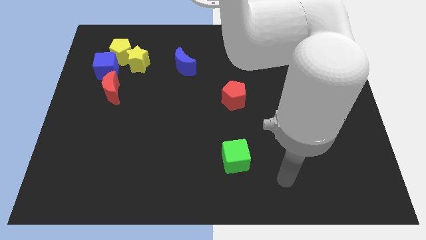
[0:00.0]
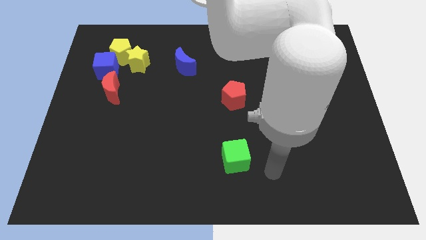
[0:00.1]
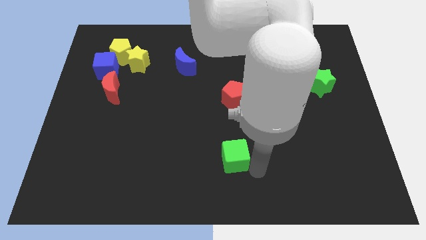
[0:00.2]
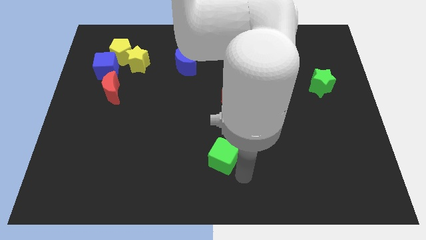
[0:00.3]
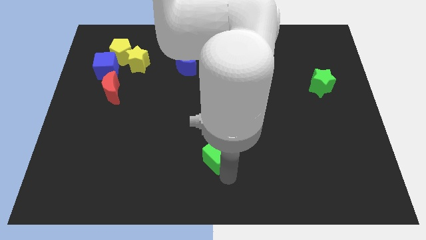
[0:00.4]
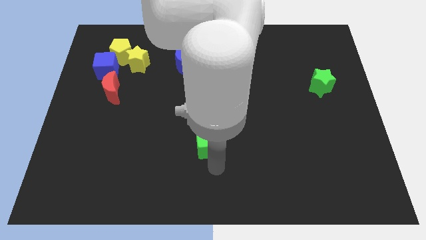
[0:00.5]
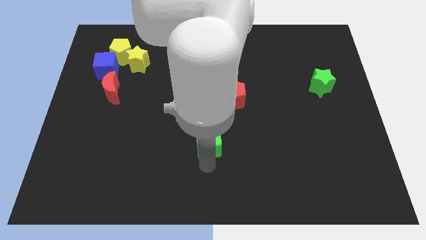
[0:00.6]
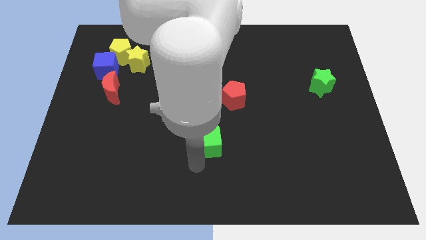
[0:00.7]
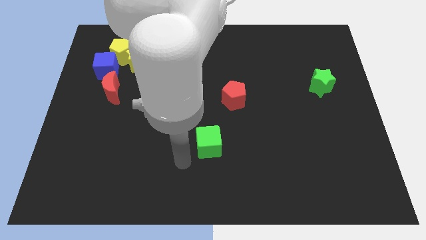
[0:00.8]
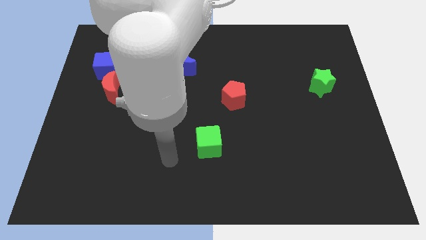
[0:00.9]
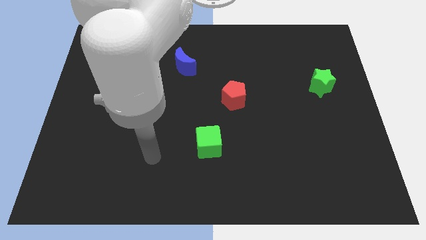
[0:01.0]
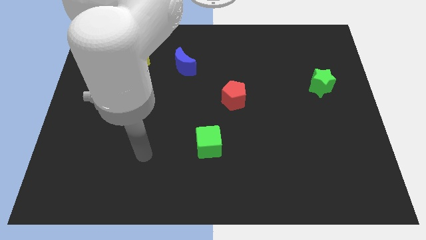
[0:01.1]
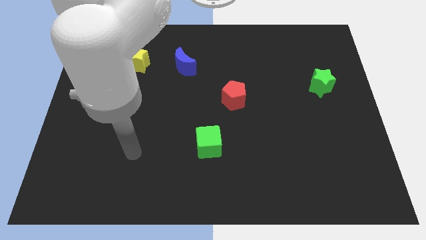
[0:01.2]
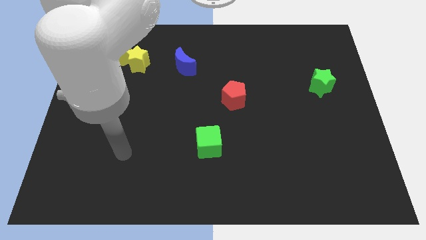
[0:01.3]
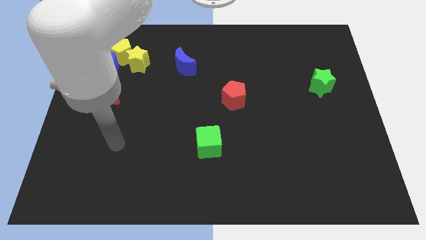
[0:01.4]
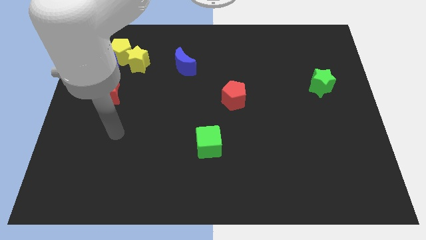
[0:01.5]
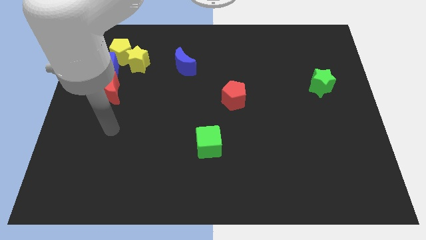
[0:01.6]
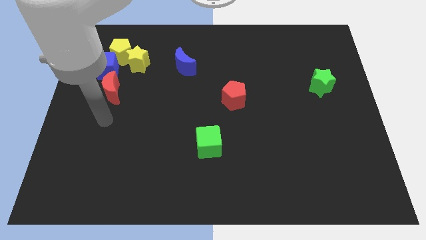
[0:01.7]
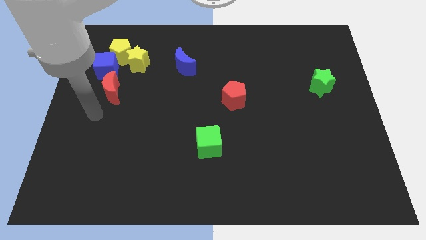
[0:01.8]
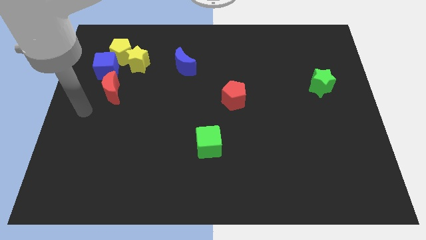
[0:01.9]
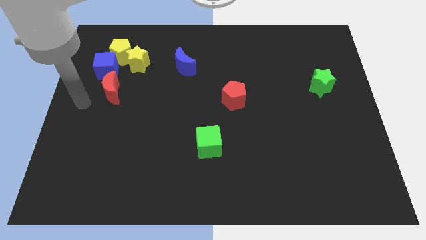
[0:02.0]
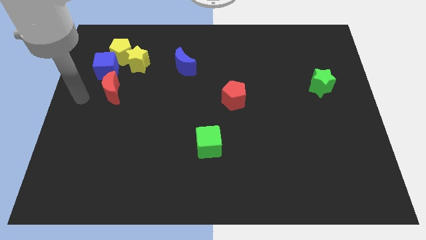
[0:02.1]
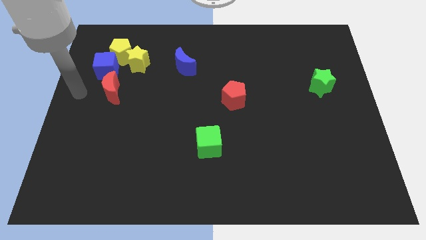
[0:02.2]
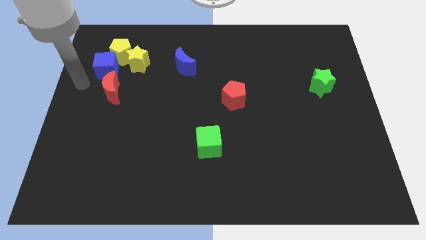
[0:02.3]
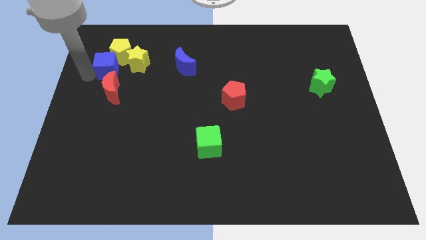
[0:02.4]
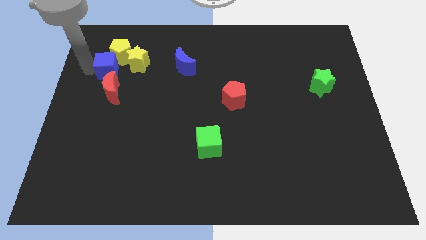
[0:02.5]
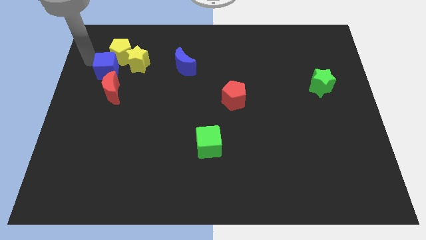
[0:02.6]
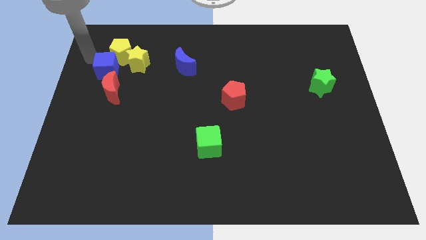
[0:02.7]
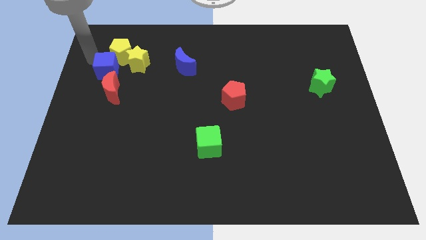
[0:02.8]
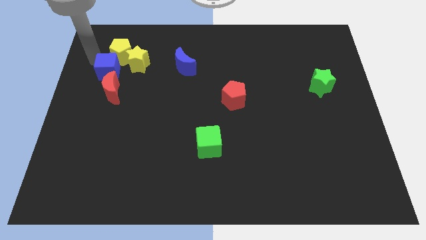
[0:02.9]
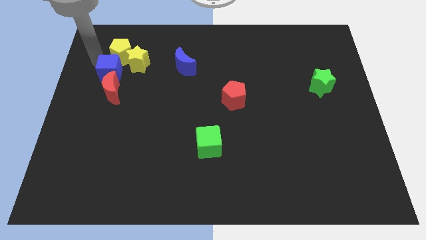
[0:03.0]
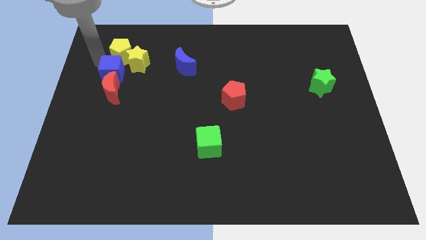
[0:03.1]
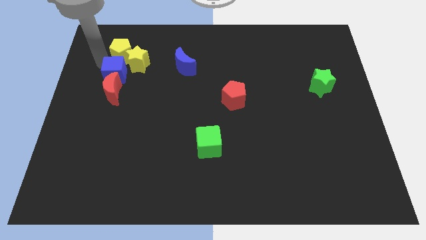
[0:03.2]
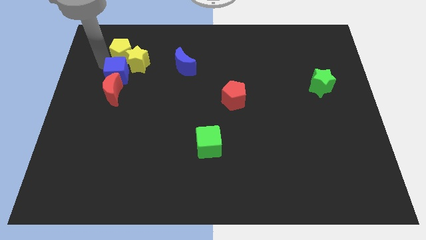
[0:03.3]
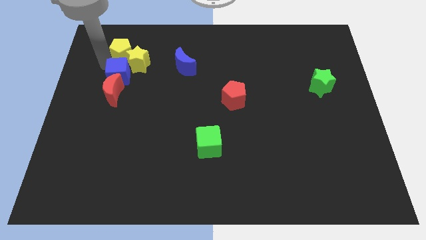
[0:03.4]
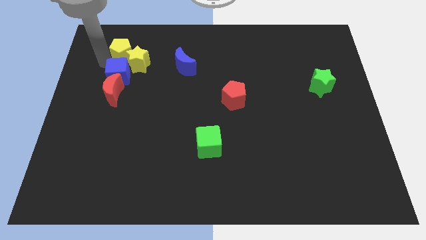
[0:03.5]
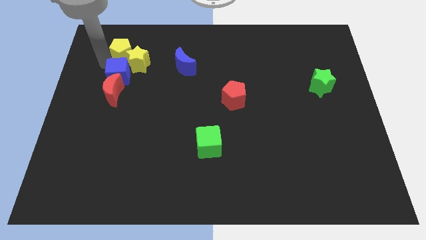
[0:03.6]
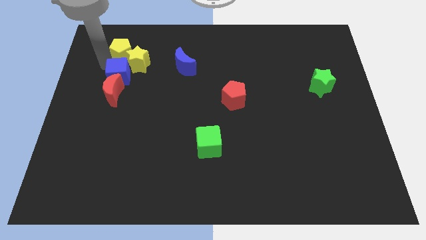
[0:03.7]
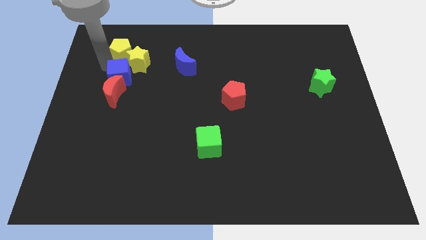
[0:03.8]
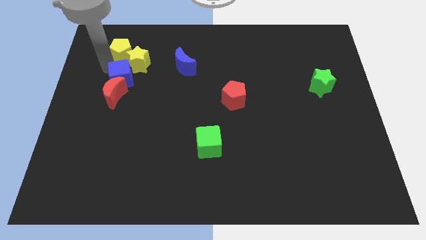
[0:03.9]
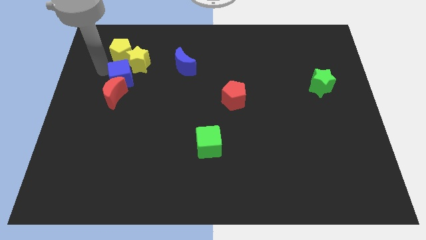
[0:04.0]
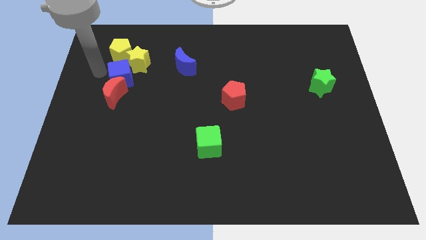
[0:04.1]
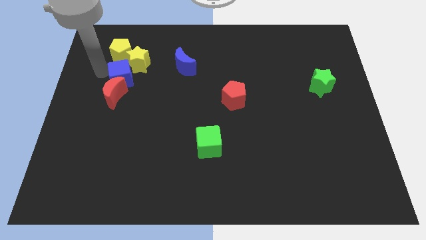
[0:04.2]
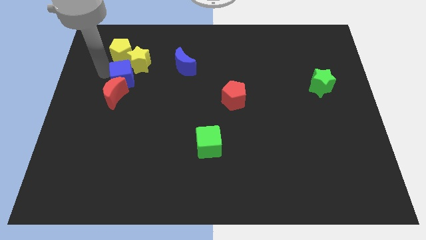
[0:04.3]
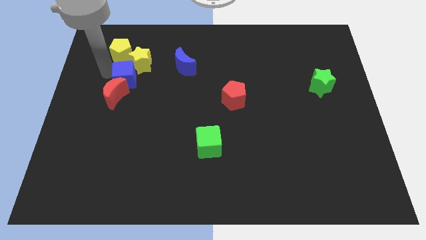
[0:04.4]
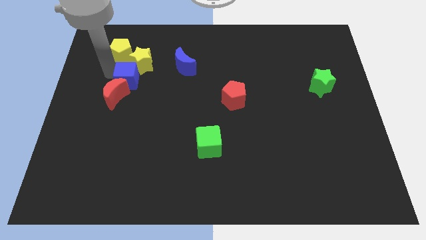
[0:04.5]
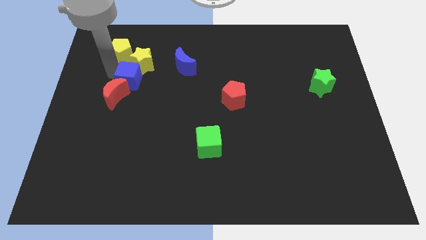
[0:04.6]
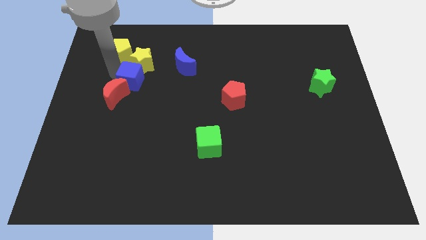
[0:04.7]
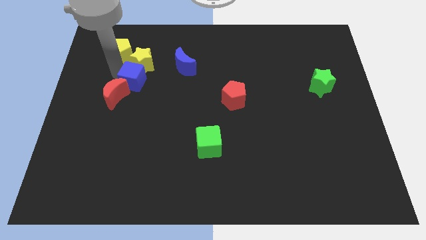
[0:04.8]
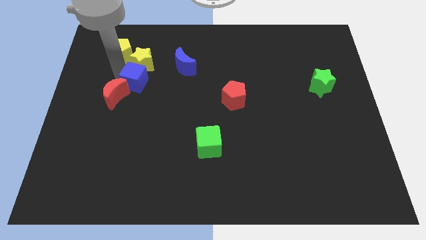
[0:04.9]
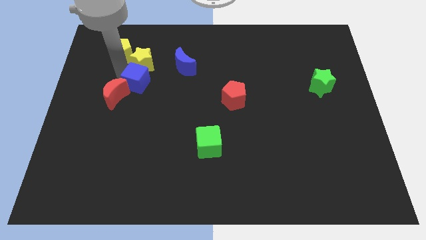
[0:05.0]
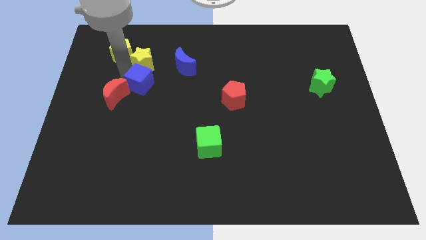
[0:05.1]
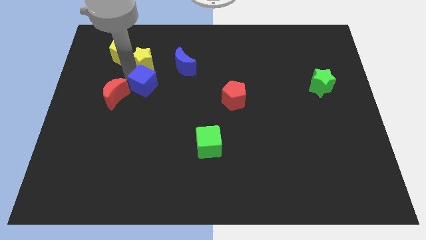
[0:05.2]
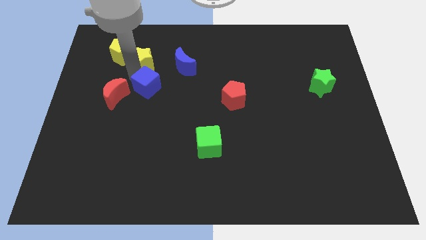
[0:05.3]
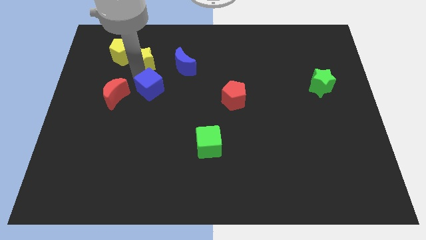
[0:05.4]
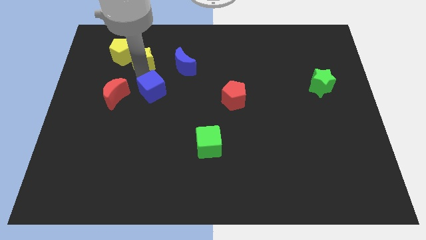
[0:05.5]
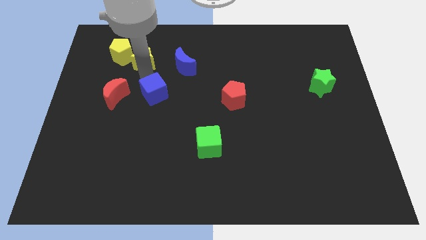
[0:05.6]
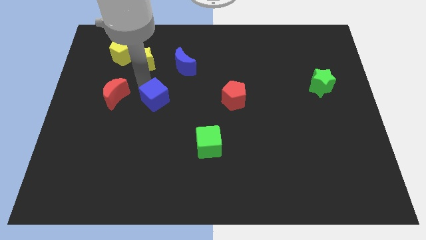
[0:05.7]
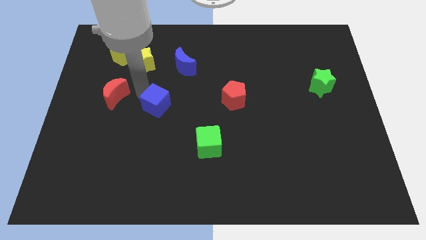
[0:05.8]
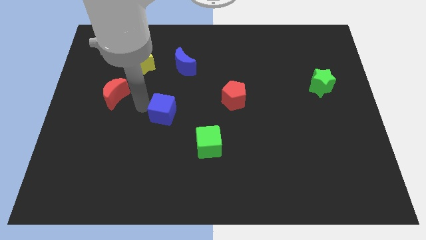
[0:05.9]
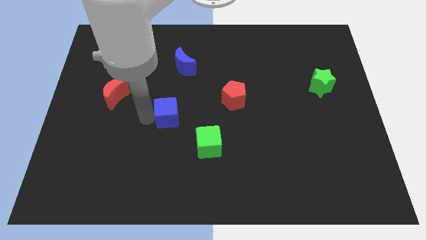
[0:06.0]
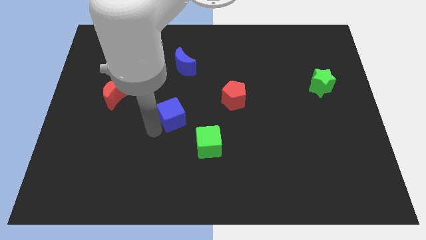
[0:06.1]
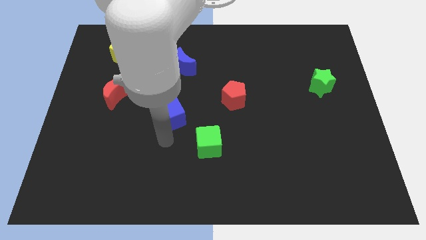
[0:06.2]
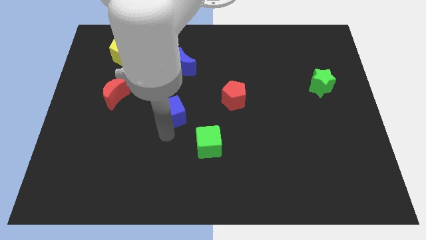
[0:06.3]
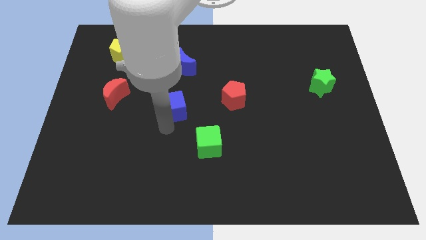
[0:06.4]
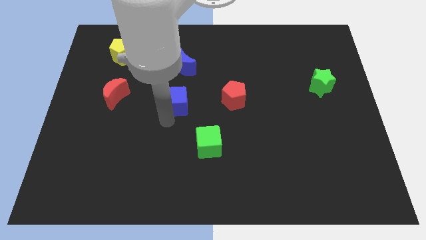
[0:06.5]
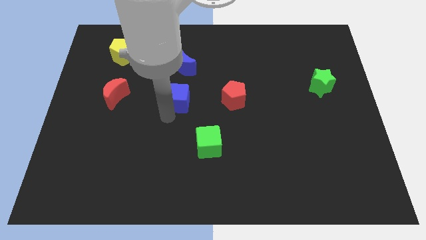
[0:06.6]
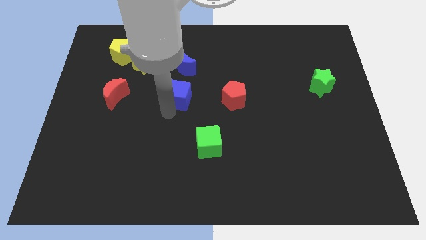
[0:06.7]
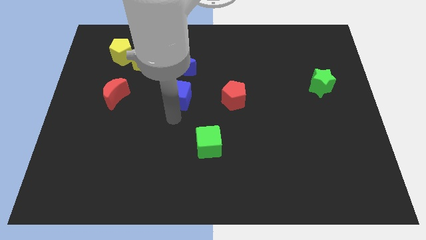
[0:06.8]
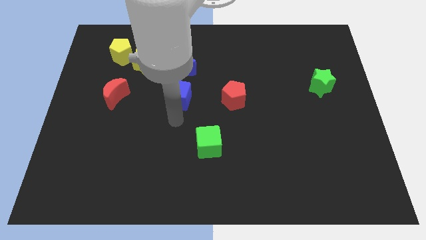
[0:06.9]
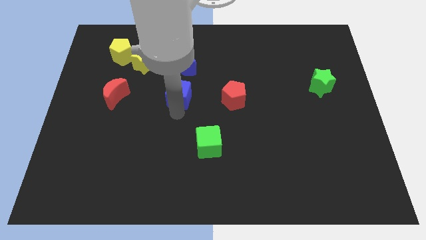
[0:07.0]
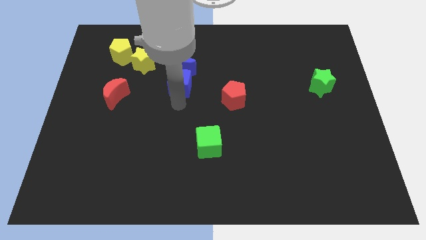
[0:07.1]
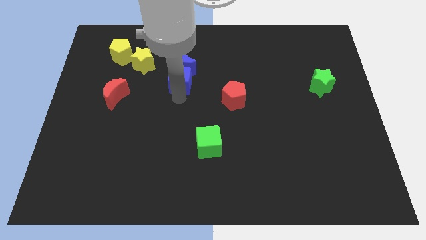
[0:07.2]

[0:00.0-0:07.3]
push the blue cube close to the blue moon
